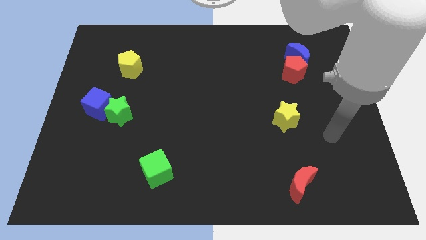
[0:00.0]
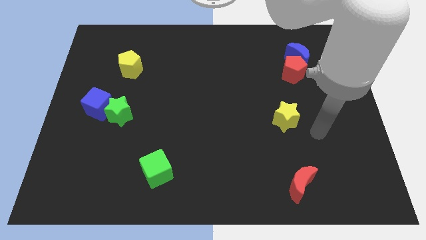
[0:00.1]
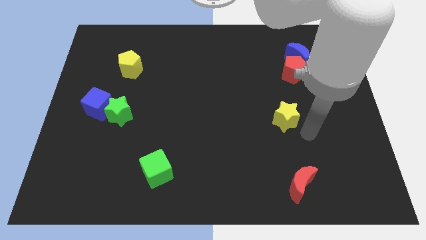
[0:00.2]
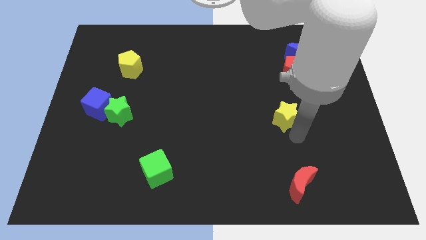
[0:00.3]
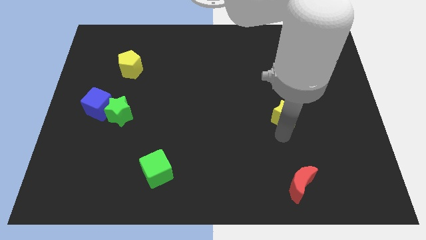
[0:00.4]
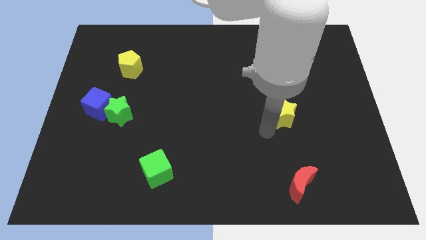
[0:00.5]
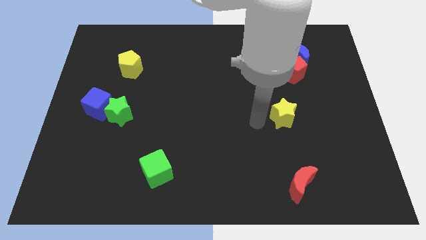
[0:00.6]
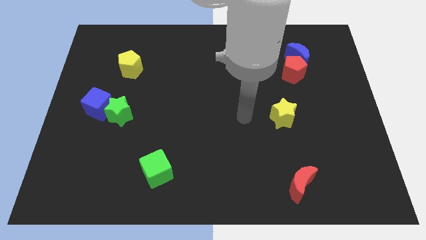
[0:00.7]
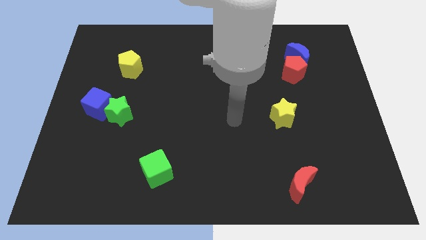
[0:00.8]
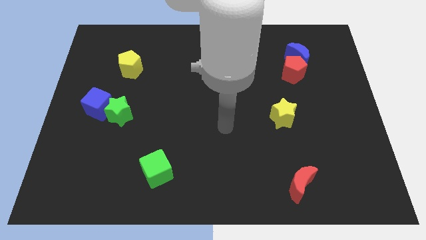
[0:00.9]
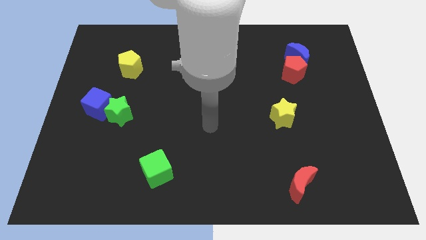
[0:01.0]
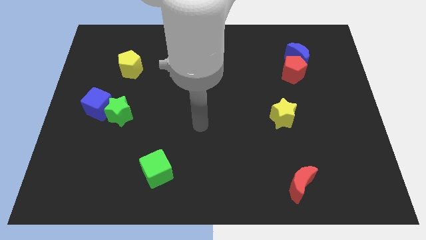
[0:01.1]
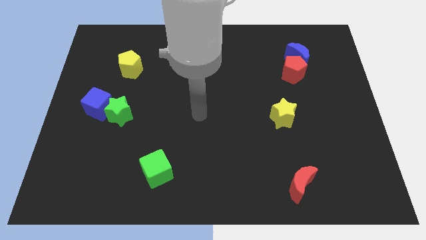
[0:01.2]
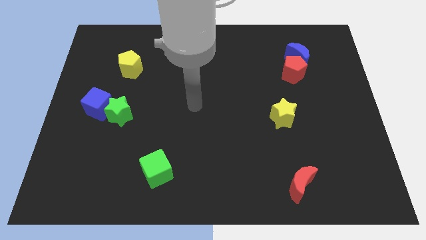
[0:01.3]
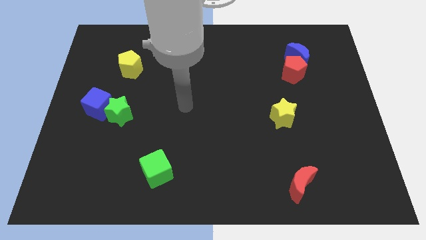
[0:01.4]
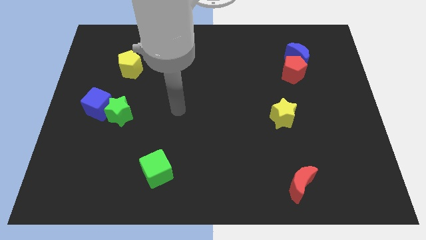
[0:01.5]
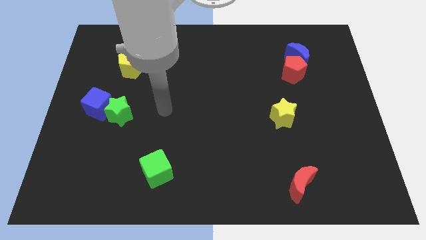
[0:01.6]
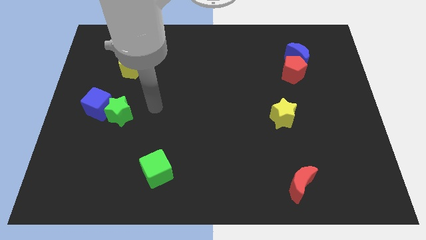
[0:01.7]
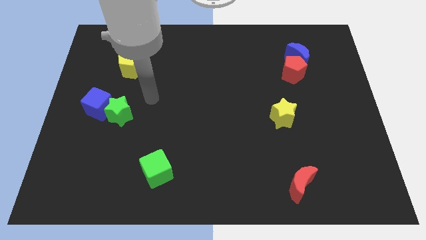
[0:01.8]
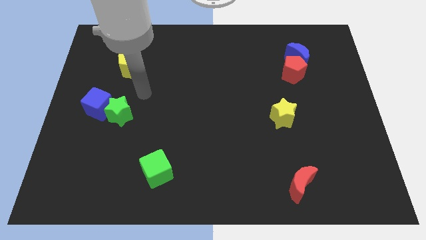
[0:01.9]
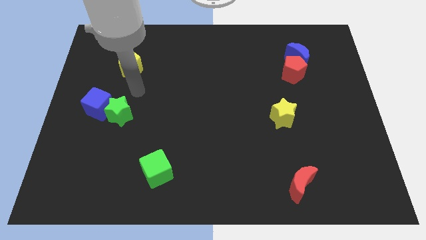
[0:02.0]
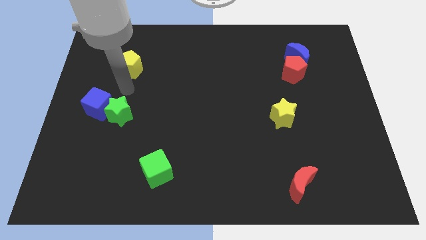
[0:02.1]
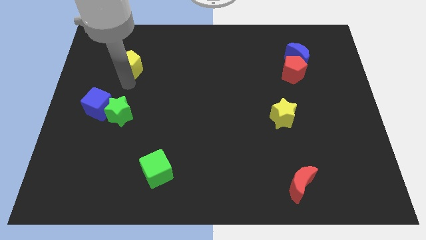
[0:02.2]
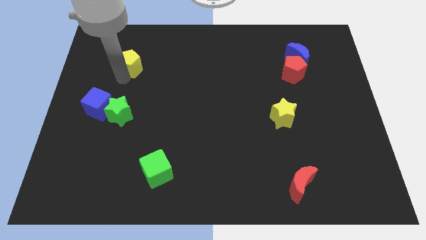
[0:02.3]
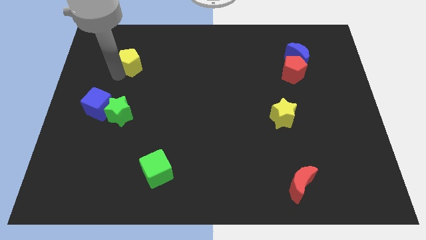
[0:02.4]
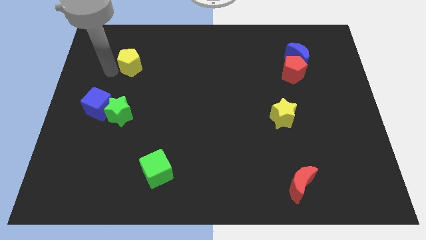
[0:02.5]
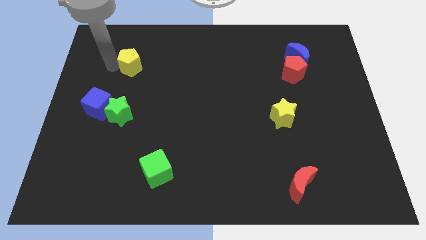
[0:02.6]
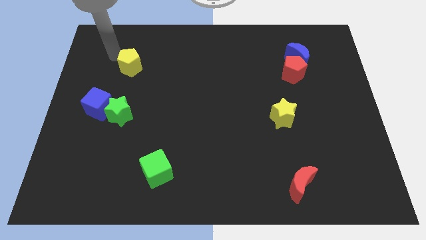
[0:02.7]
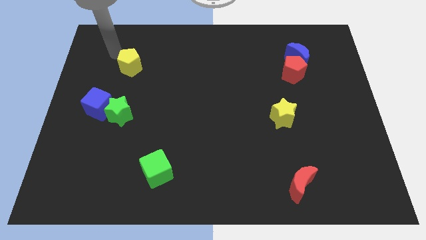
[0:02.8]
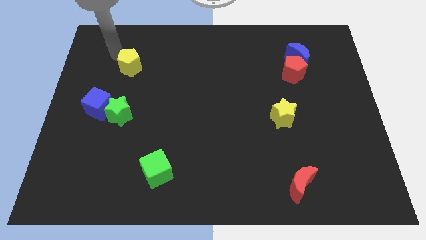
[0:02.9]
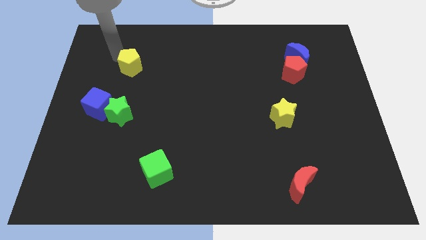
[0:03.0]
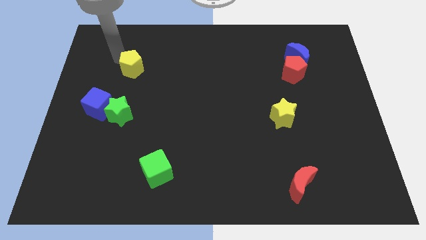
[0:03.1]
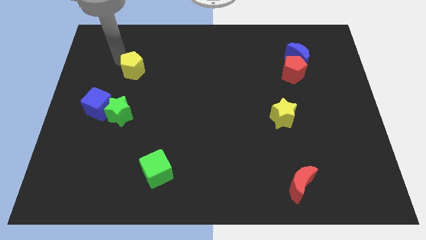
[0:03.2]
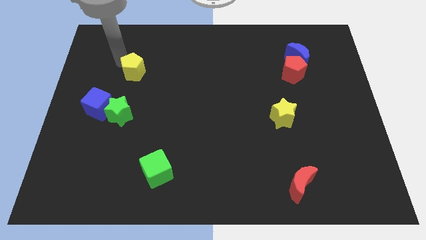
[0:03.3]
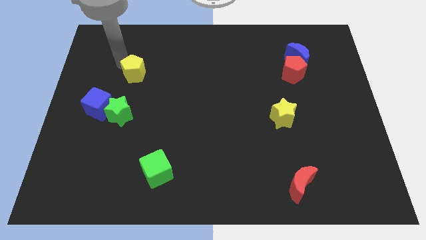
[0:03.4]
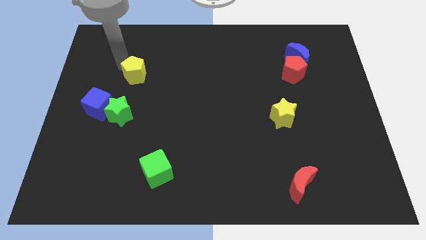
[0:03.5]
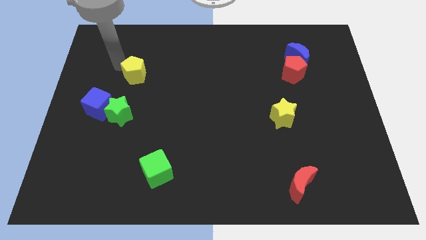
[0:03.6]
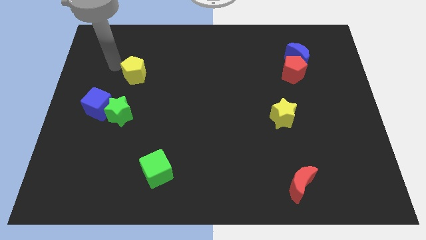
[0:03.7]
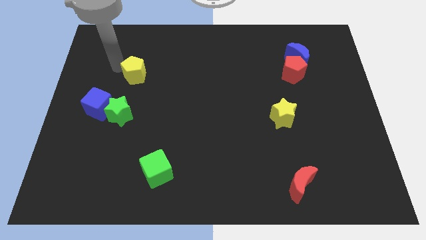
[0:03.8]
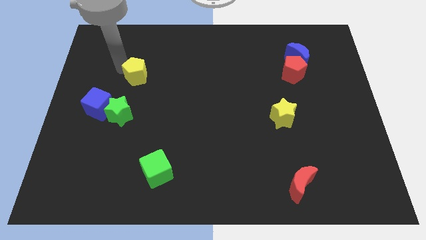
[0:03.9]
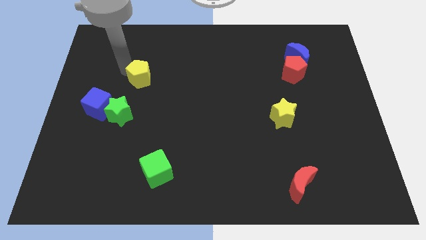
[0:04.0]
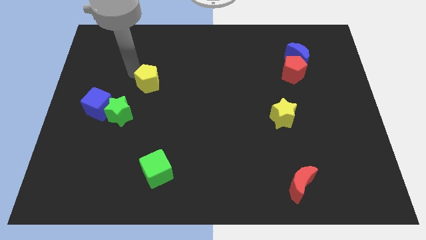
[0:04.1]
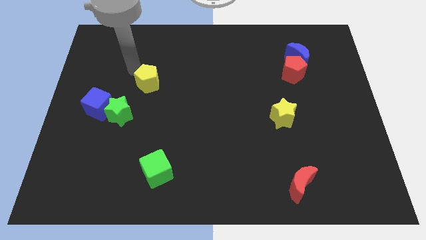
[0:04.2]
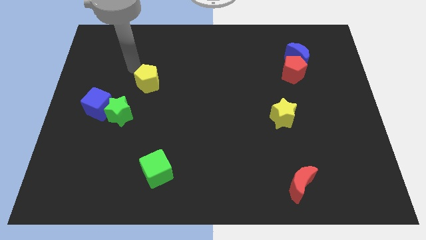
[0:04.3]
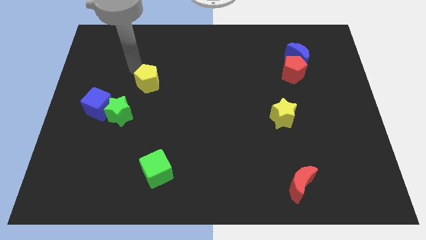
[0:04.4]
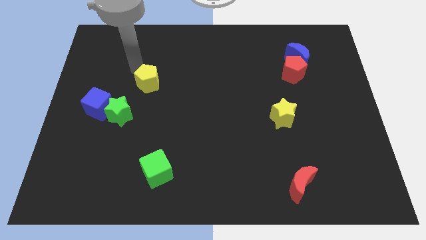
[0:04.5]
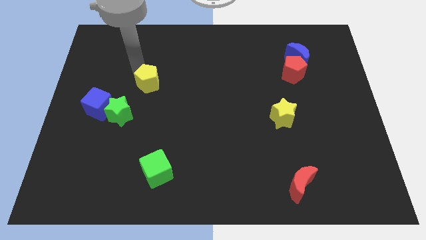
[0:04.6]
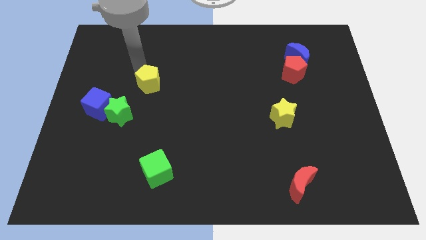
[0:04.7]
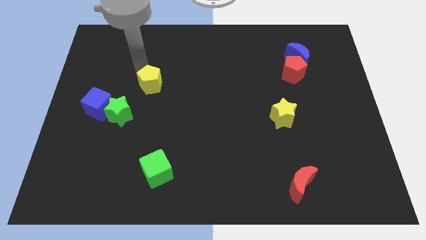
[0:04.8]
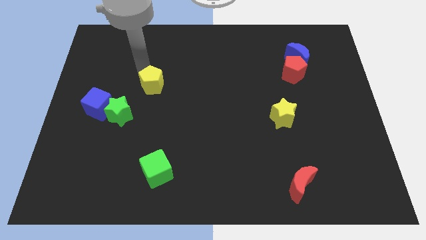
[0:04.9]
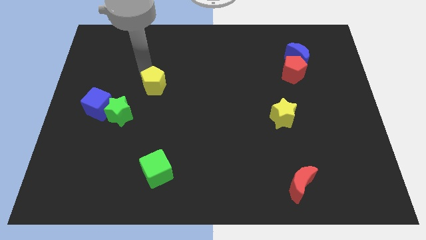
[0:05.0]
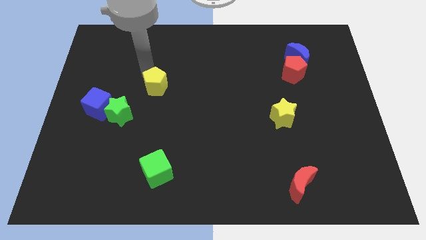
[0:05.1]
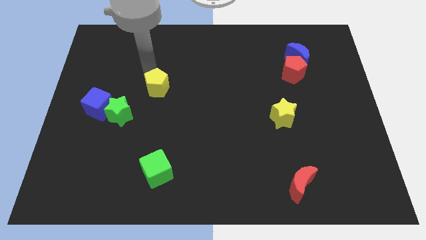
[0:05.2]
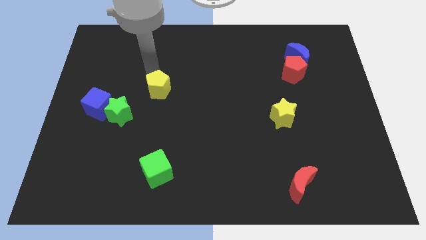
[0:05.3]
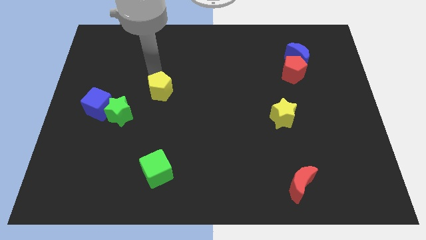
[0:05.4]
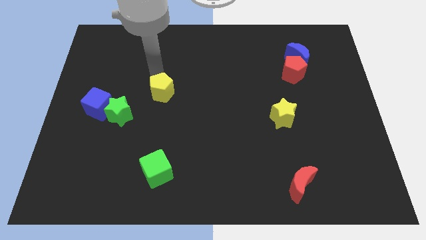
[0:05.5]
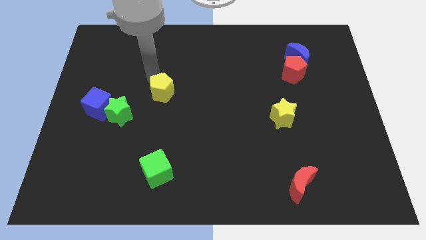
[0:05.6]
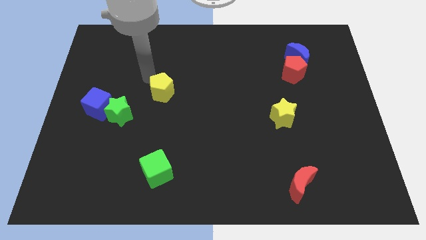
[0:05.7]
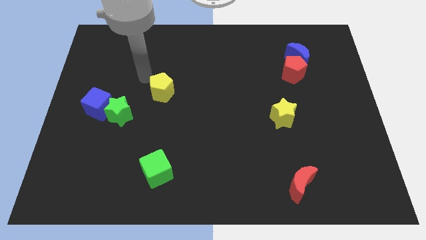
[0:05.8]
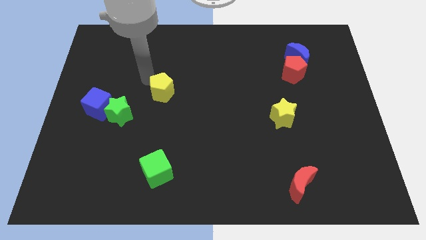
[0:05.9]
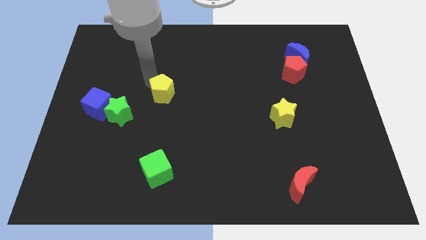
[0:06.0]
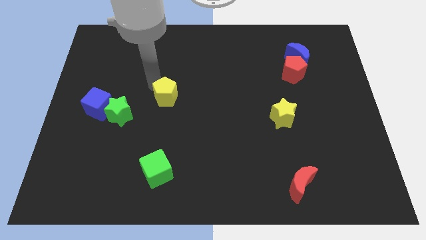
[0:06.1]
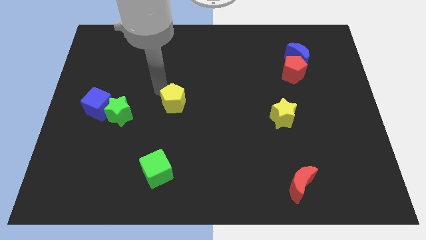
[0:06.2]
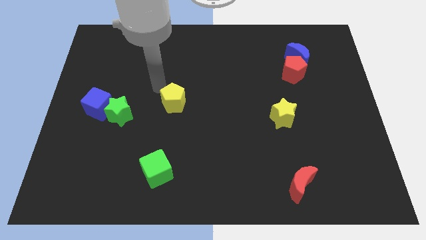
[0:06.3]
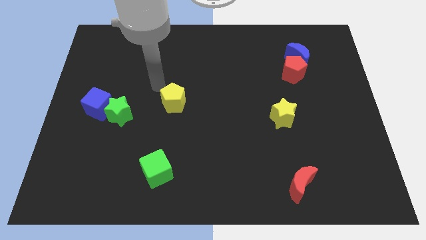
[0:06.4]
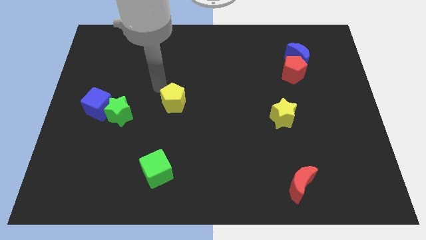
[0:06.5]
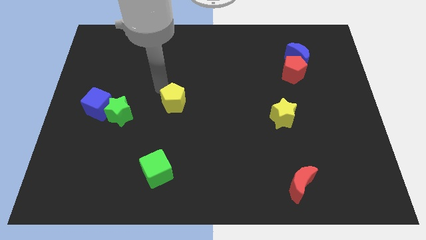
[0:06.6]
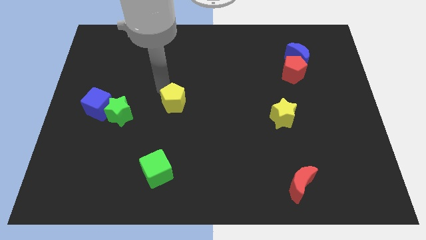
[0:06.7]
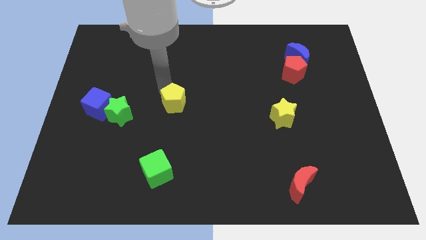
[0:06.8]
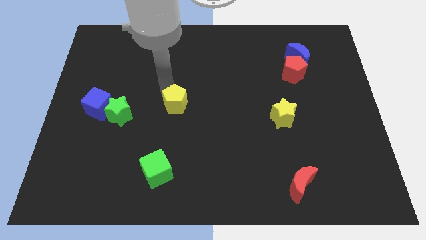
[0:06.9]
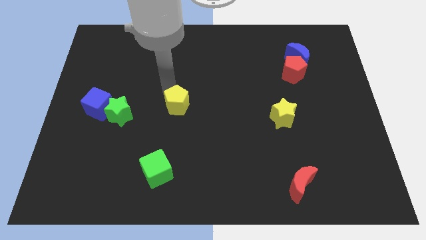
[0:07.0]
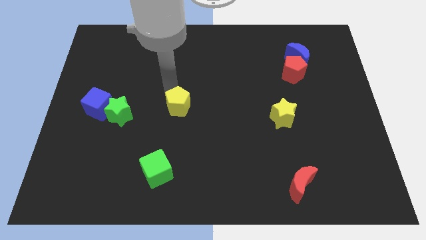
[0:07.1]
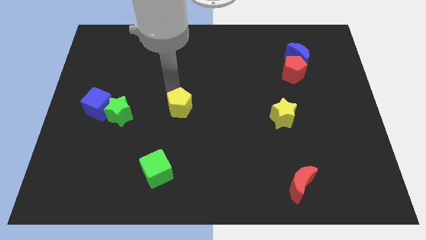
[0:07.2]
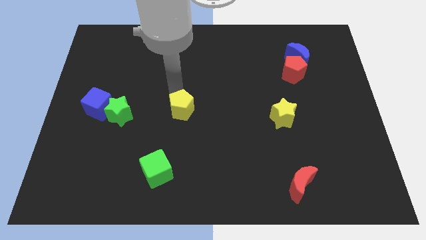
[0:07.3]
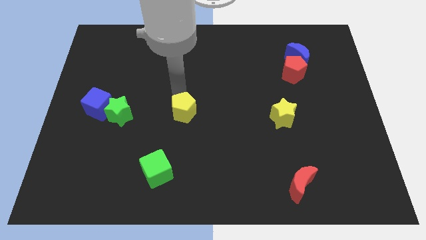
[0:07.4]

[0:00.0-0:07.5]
push the yellow pentagon downwards and to the right diagonally

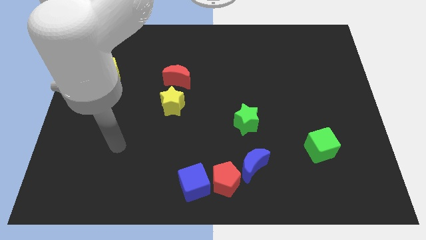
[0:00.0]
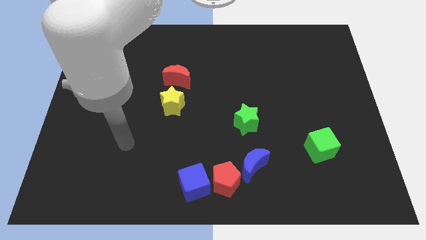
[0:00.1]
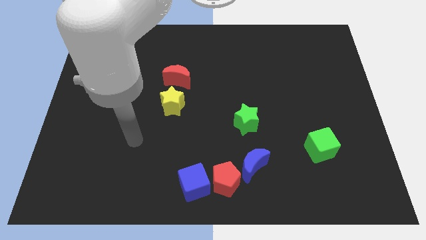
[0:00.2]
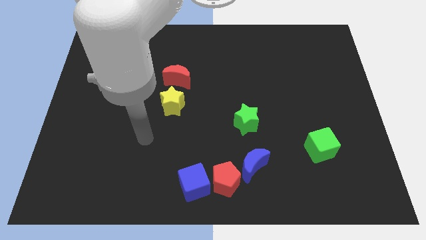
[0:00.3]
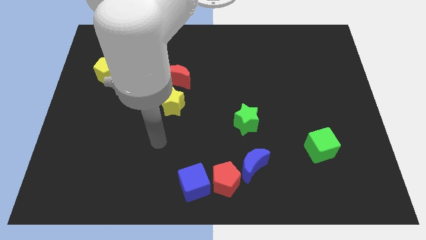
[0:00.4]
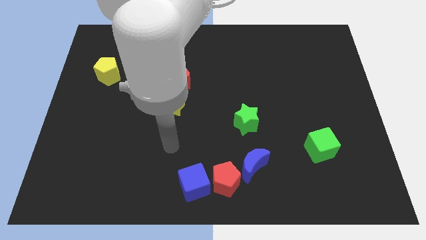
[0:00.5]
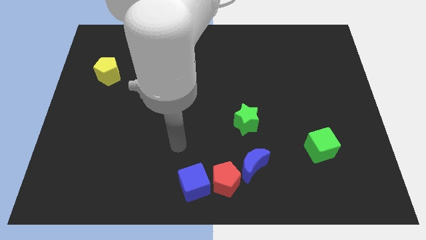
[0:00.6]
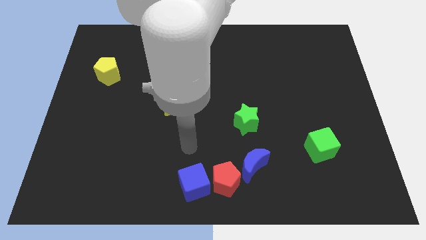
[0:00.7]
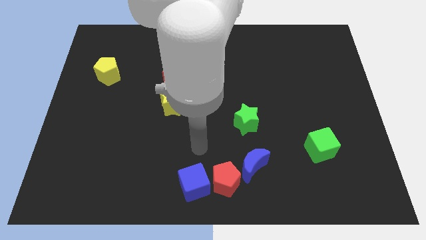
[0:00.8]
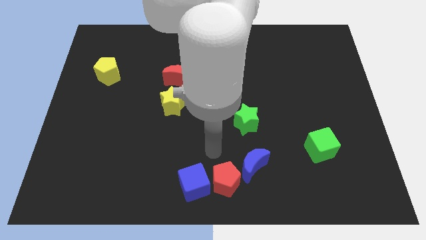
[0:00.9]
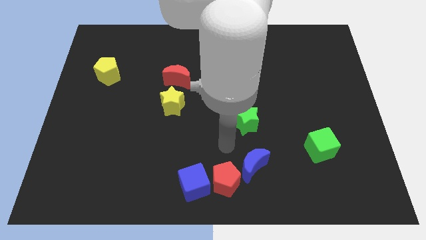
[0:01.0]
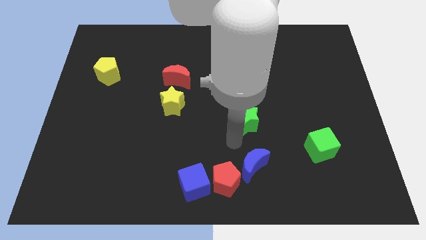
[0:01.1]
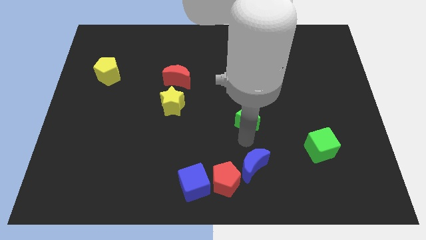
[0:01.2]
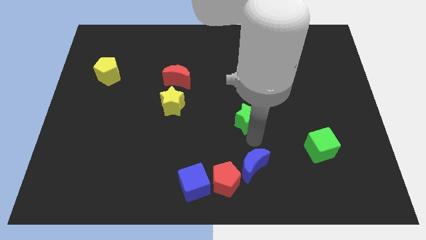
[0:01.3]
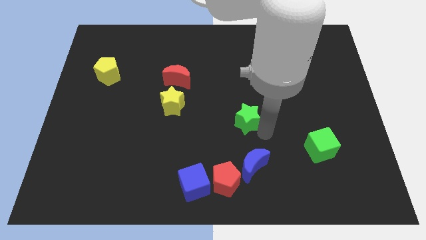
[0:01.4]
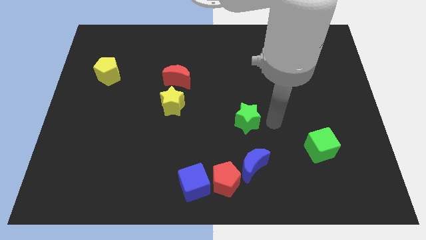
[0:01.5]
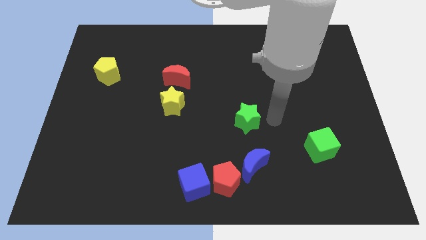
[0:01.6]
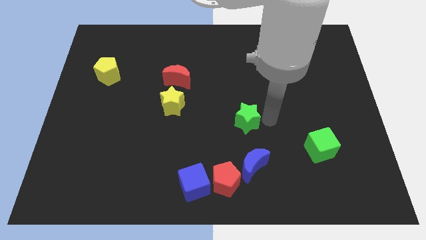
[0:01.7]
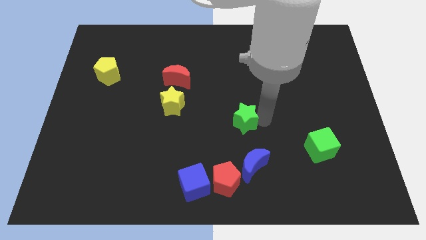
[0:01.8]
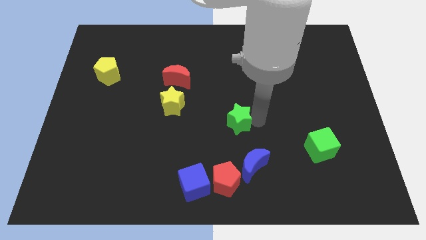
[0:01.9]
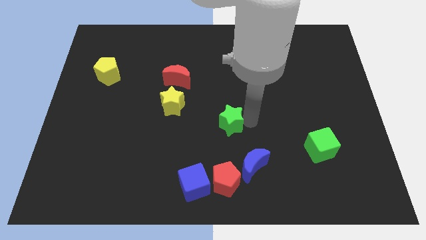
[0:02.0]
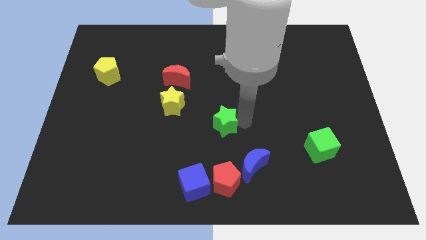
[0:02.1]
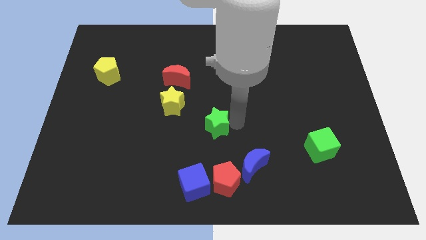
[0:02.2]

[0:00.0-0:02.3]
slightly slide the green star left
